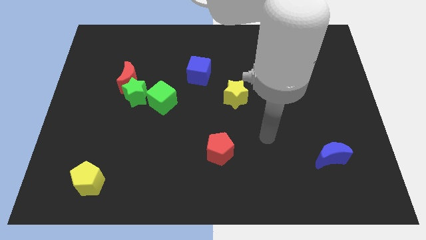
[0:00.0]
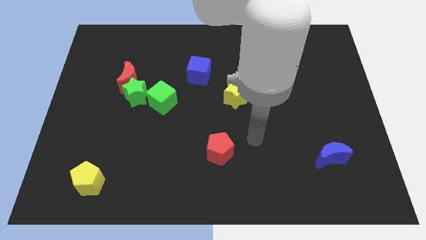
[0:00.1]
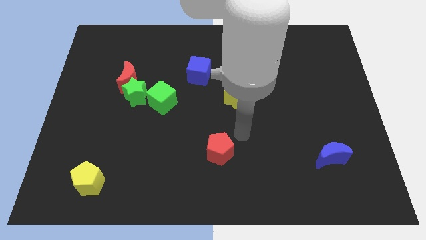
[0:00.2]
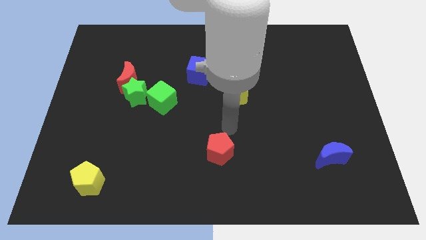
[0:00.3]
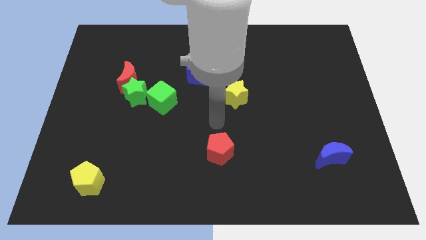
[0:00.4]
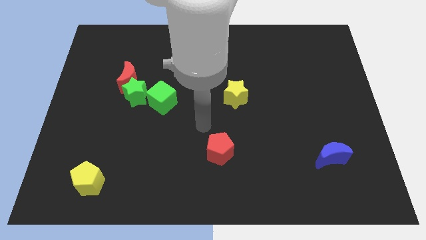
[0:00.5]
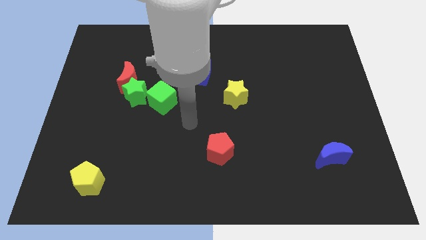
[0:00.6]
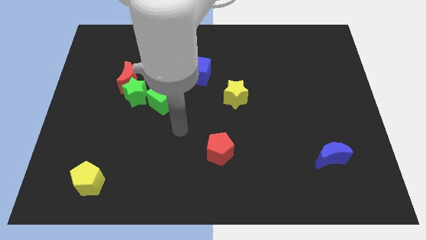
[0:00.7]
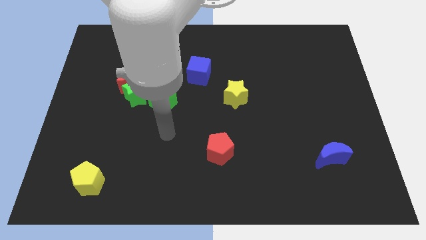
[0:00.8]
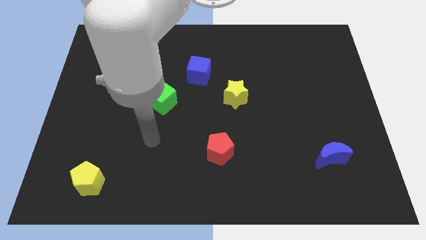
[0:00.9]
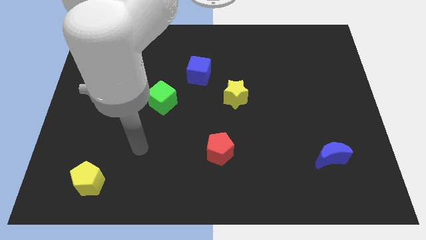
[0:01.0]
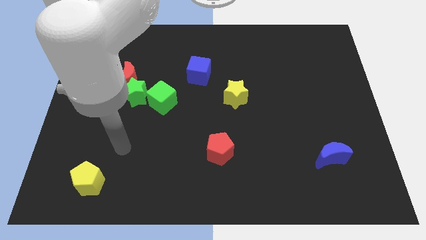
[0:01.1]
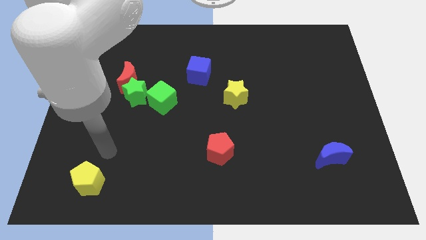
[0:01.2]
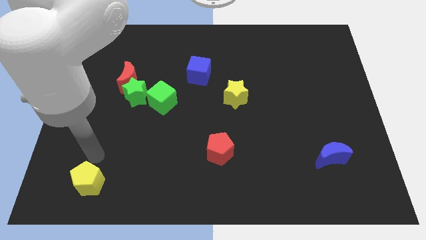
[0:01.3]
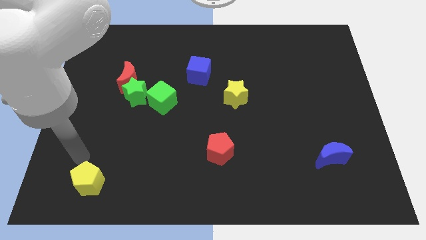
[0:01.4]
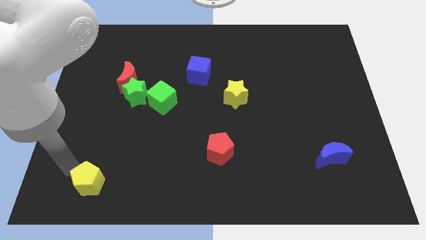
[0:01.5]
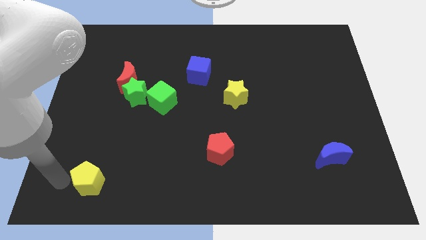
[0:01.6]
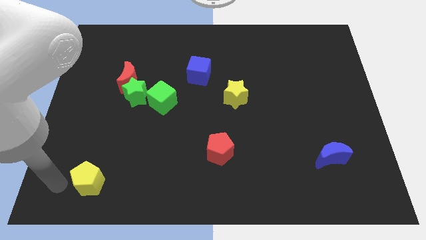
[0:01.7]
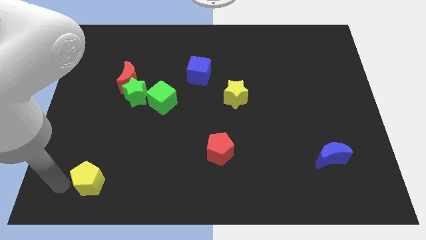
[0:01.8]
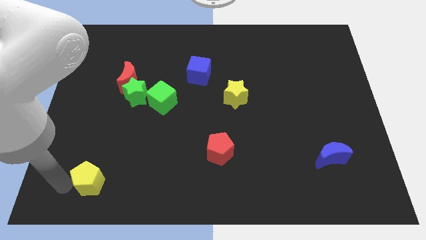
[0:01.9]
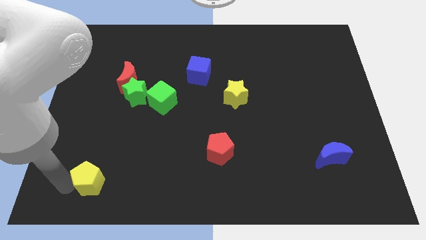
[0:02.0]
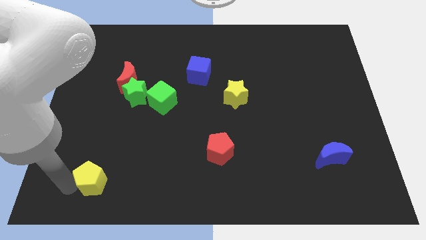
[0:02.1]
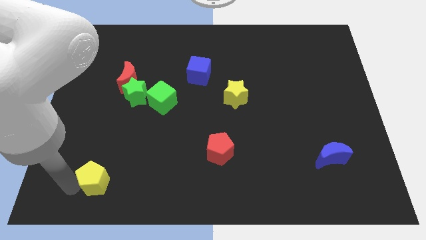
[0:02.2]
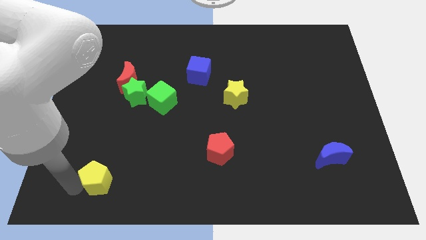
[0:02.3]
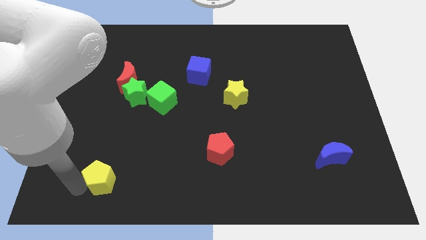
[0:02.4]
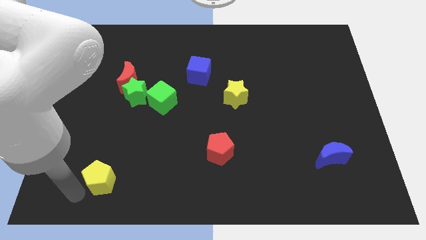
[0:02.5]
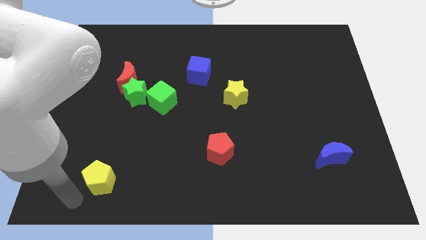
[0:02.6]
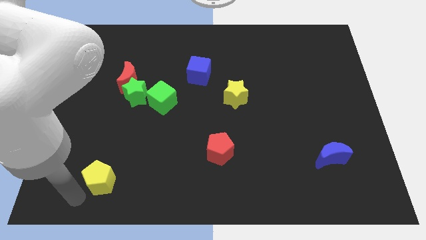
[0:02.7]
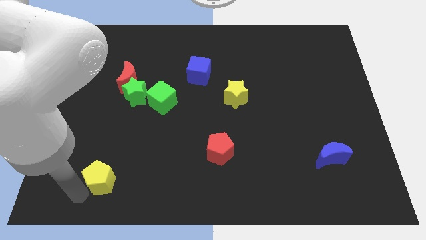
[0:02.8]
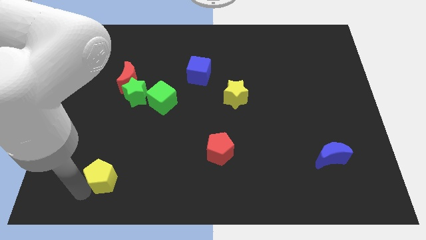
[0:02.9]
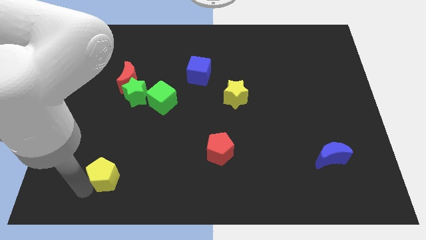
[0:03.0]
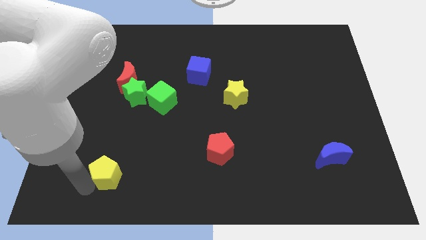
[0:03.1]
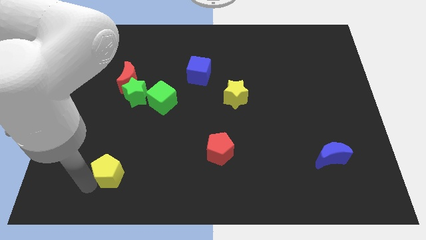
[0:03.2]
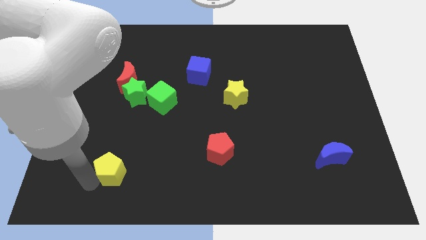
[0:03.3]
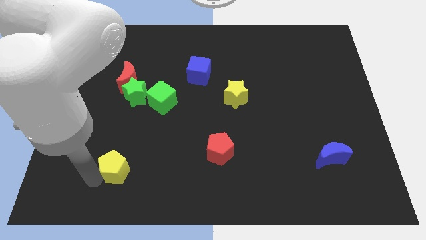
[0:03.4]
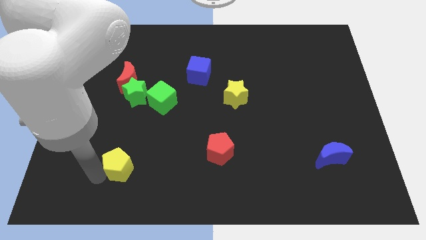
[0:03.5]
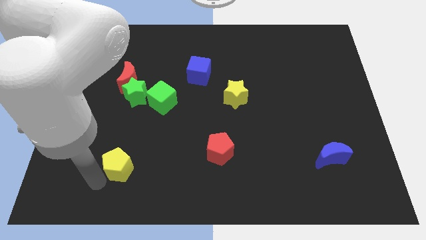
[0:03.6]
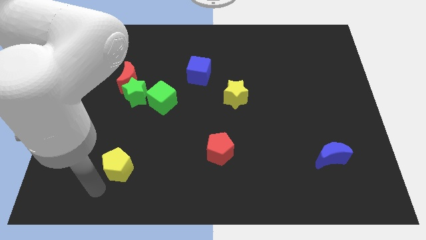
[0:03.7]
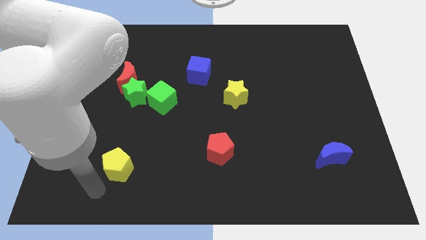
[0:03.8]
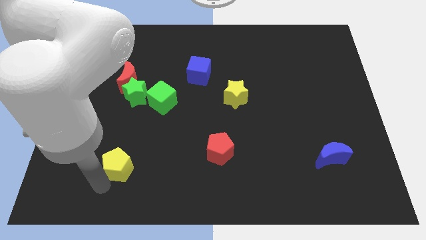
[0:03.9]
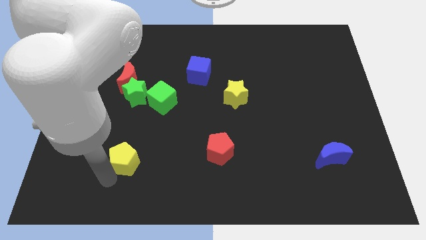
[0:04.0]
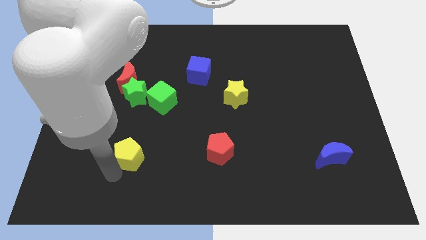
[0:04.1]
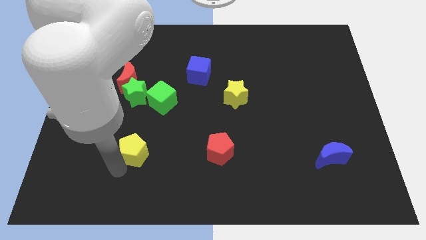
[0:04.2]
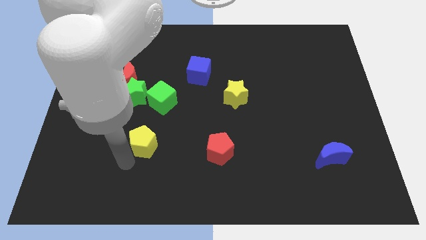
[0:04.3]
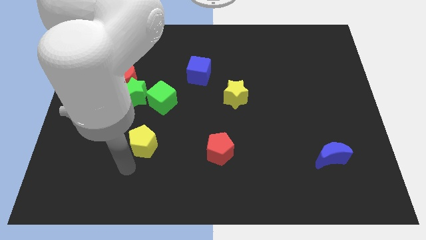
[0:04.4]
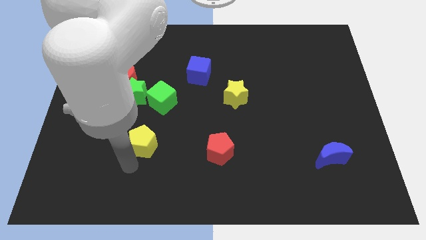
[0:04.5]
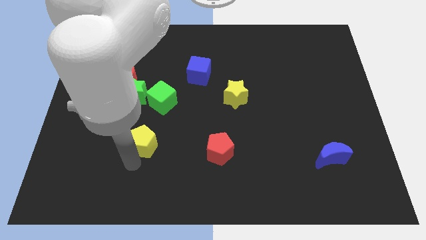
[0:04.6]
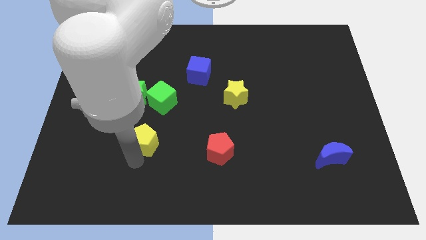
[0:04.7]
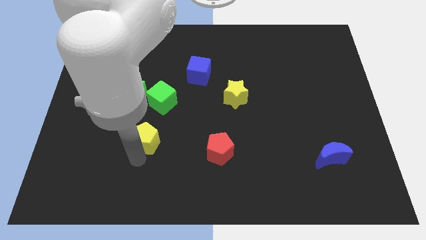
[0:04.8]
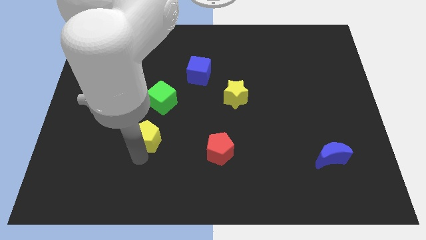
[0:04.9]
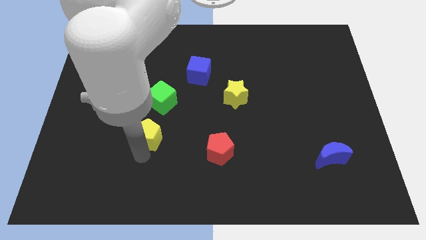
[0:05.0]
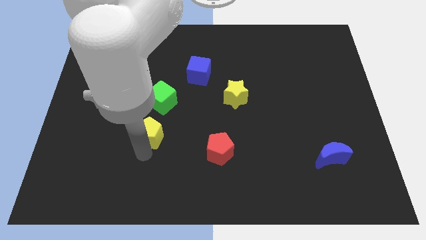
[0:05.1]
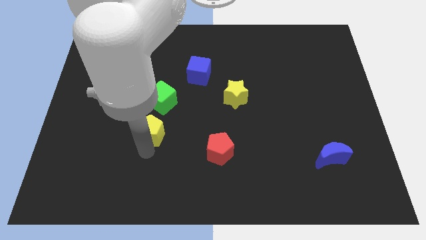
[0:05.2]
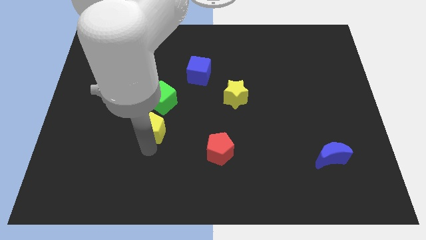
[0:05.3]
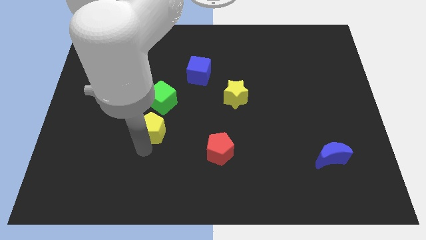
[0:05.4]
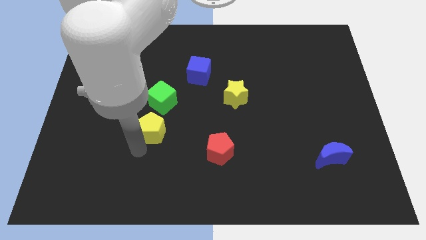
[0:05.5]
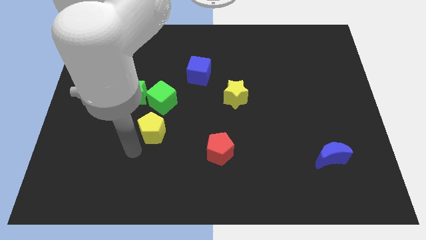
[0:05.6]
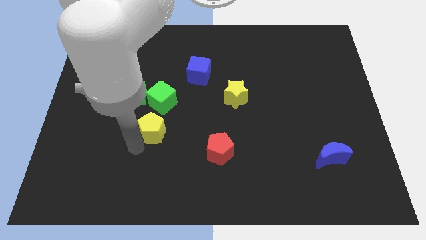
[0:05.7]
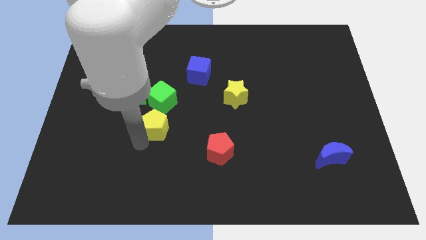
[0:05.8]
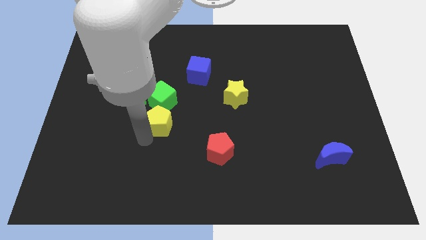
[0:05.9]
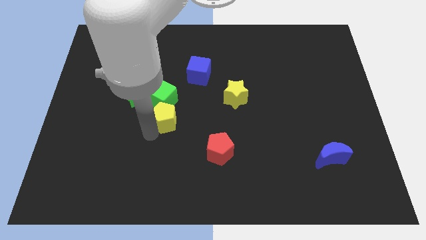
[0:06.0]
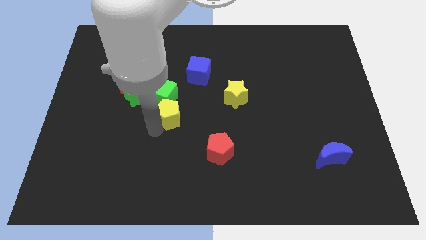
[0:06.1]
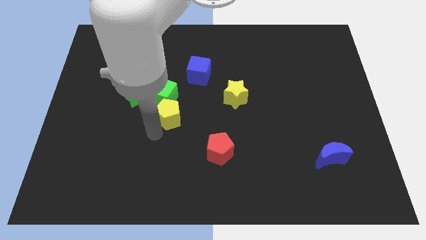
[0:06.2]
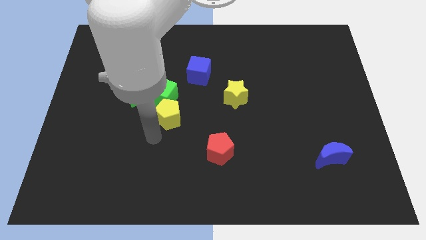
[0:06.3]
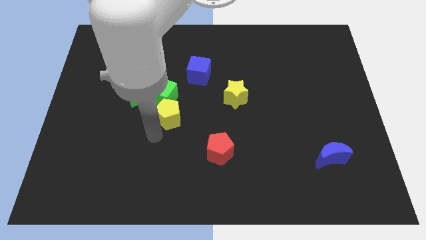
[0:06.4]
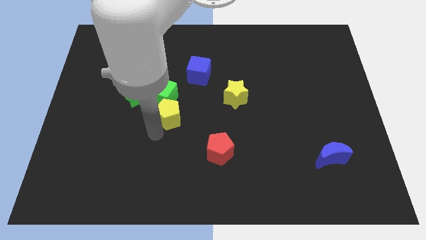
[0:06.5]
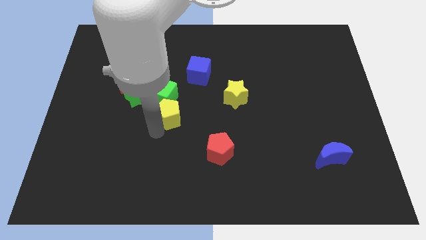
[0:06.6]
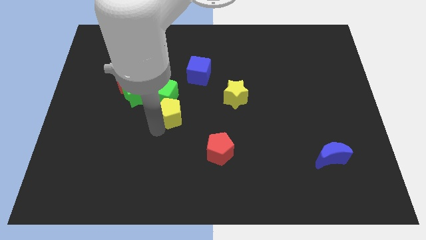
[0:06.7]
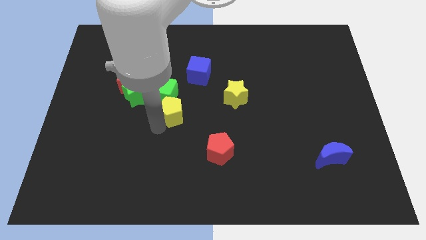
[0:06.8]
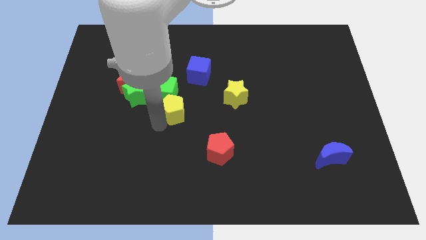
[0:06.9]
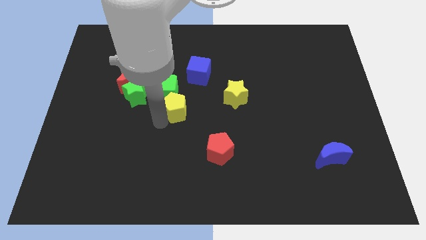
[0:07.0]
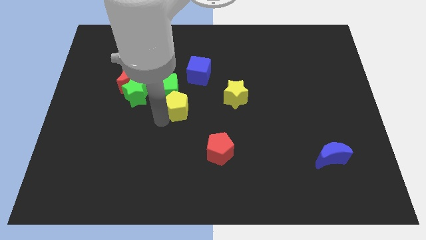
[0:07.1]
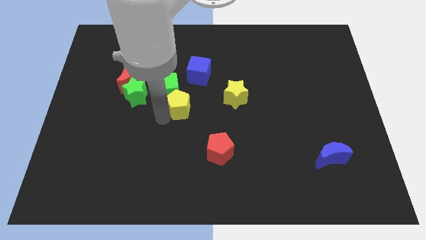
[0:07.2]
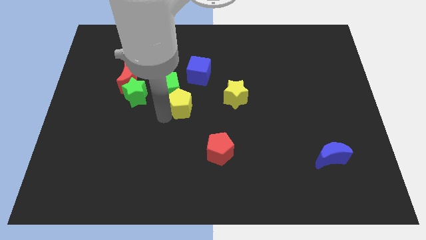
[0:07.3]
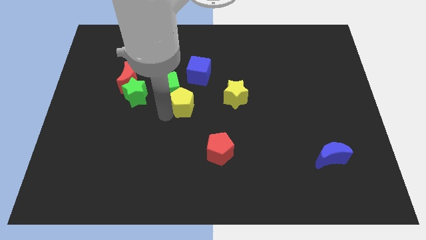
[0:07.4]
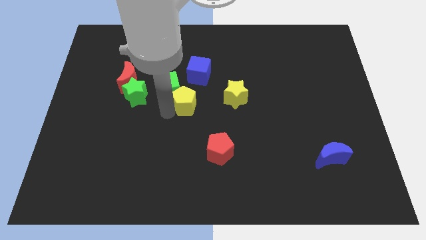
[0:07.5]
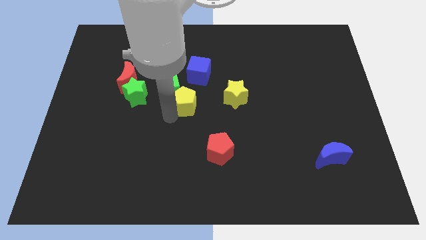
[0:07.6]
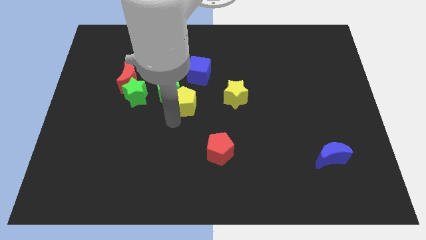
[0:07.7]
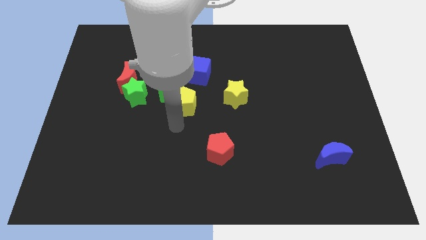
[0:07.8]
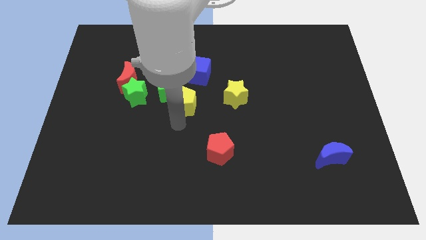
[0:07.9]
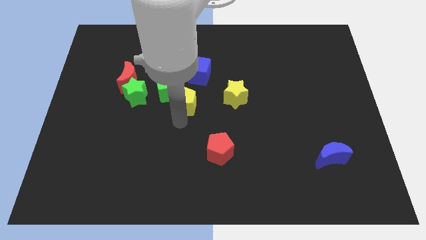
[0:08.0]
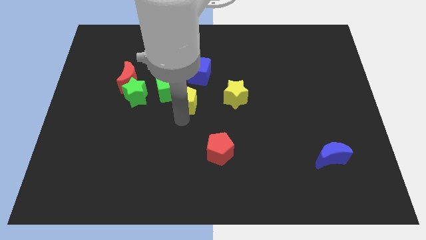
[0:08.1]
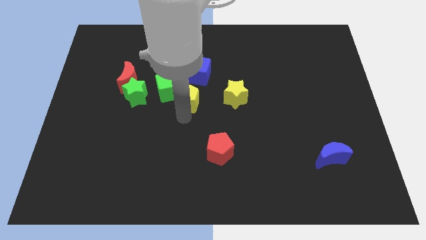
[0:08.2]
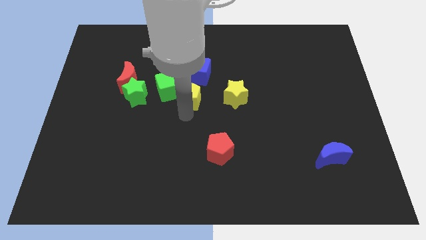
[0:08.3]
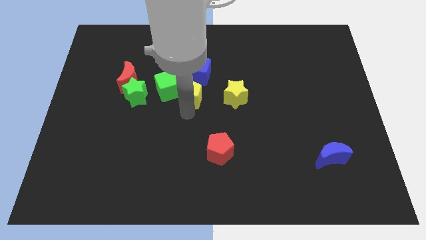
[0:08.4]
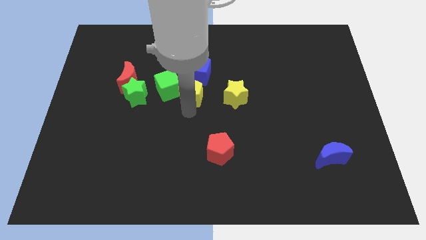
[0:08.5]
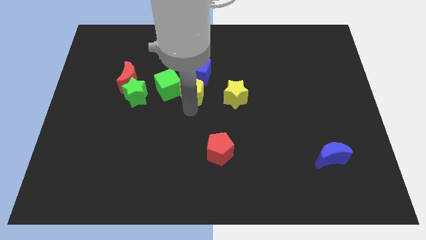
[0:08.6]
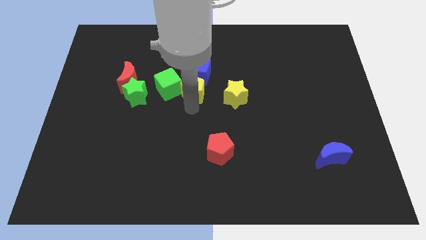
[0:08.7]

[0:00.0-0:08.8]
move the yellow pentagon to the blue cube
